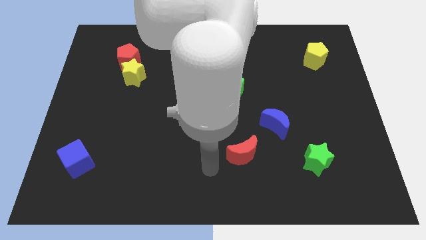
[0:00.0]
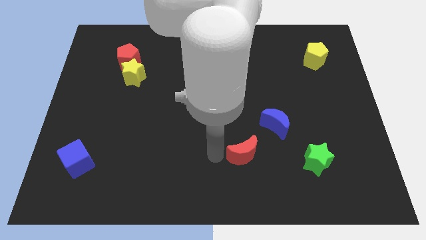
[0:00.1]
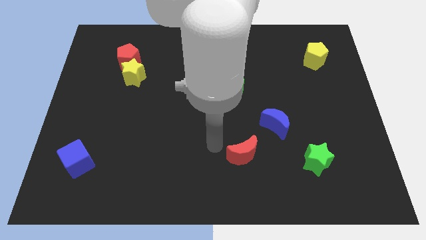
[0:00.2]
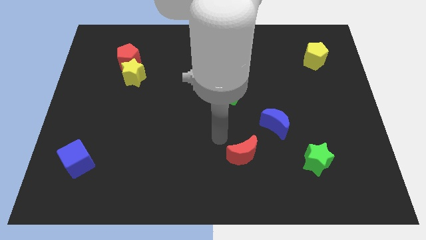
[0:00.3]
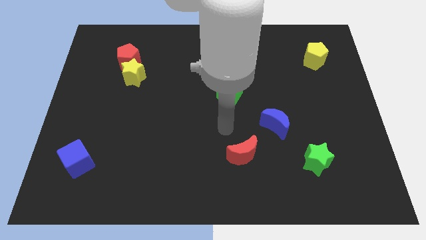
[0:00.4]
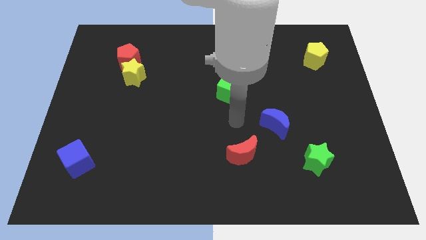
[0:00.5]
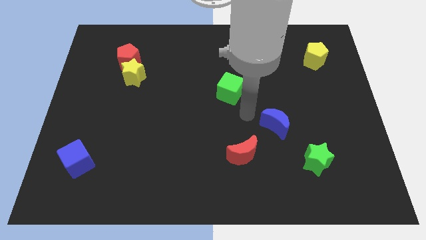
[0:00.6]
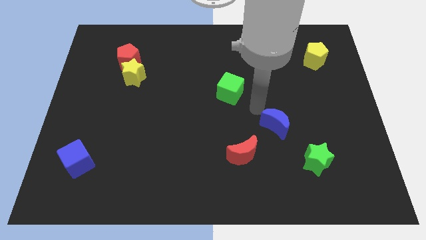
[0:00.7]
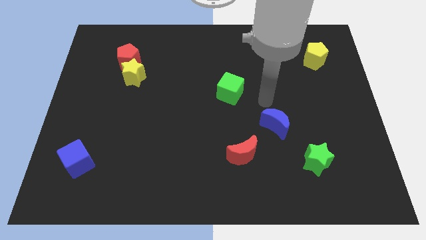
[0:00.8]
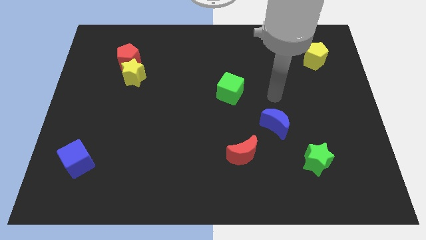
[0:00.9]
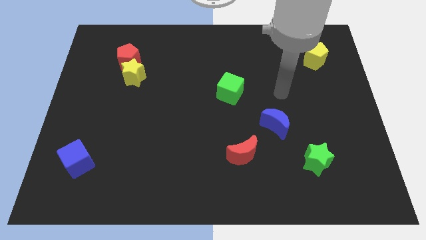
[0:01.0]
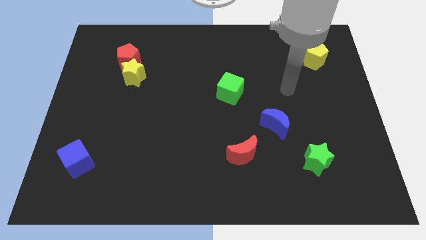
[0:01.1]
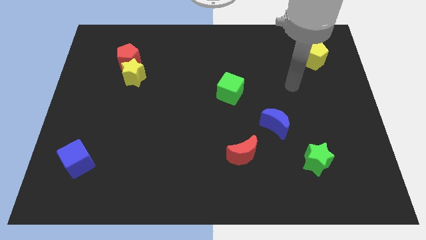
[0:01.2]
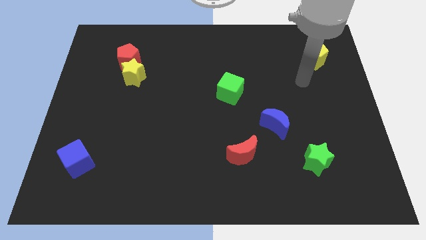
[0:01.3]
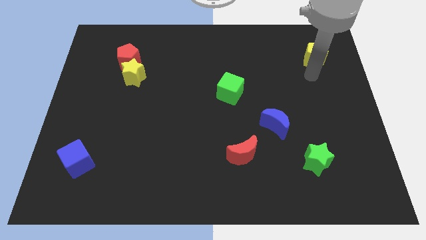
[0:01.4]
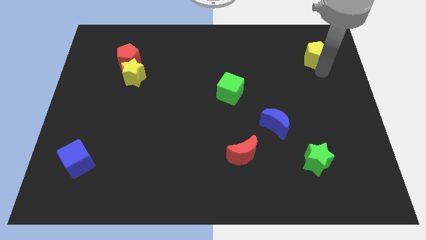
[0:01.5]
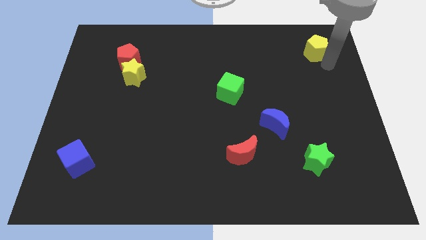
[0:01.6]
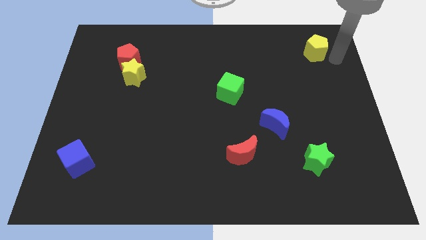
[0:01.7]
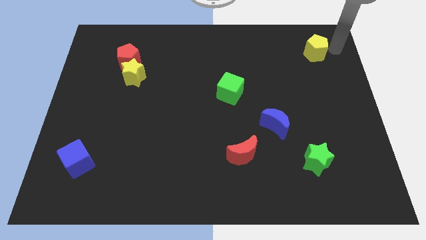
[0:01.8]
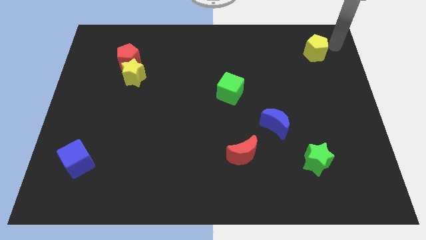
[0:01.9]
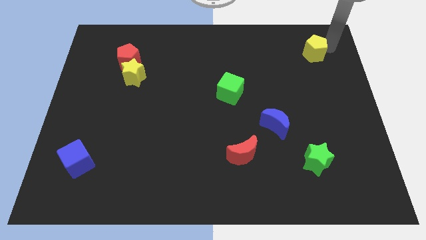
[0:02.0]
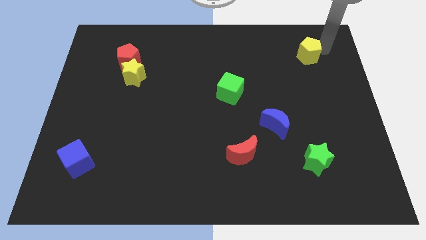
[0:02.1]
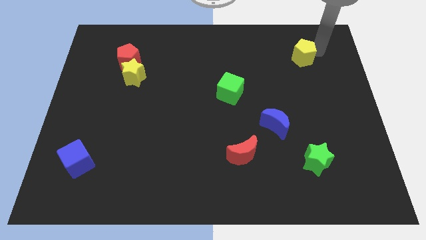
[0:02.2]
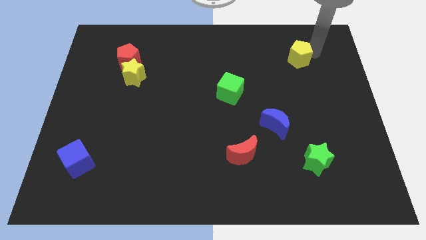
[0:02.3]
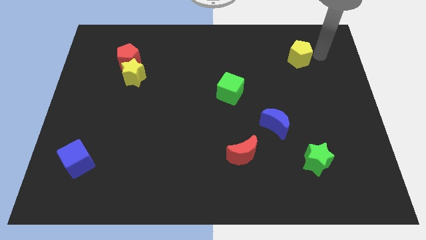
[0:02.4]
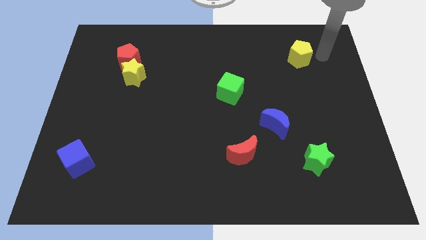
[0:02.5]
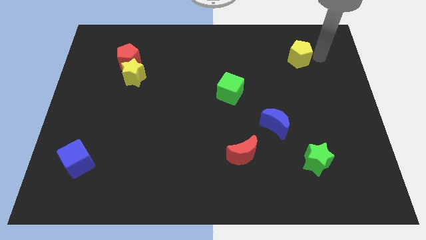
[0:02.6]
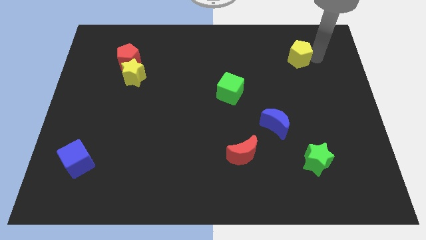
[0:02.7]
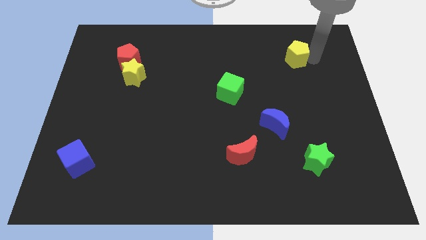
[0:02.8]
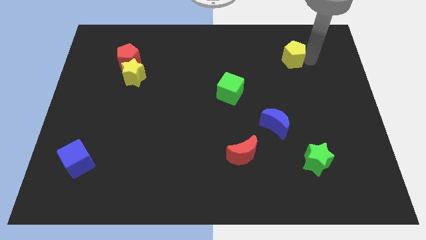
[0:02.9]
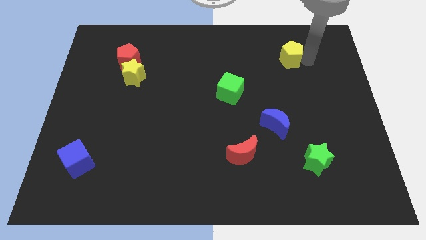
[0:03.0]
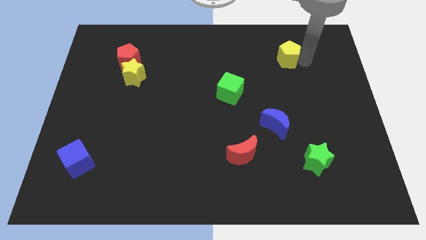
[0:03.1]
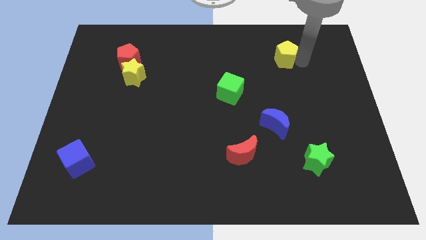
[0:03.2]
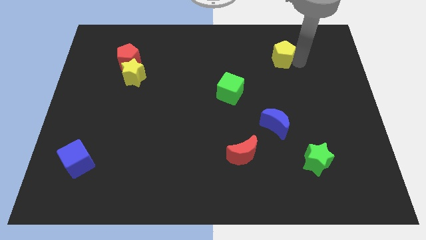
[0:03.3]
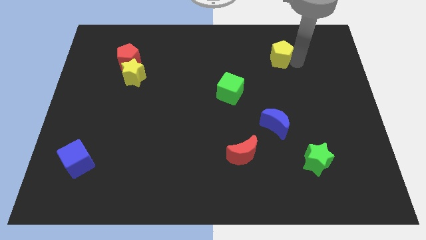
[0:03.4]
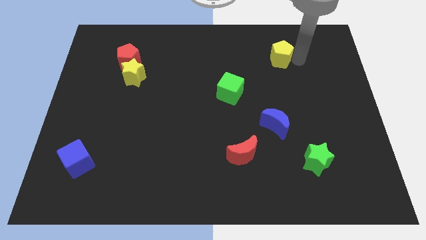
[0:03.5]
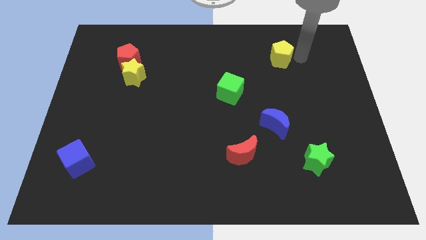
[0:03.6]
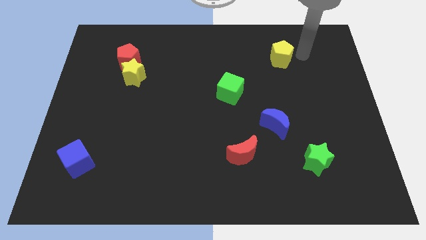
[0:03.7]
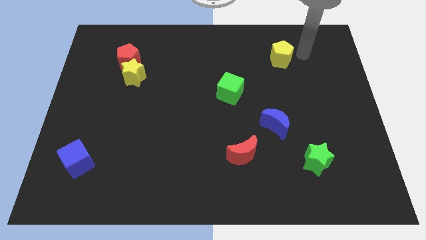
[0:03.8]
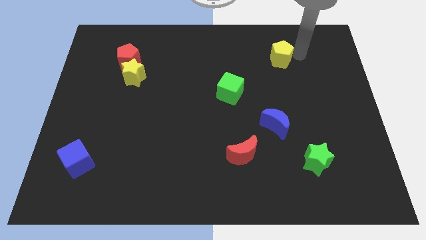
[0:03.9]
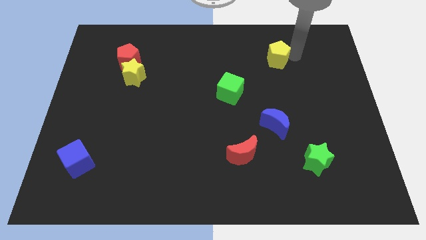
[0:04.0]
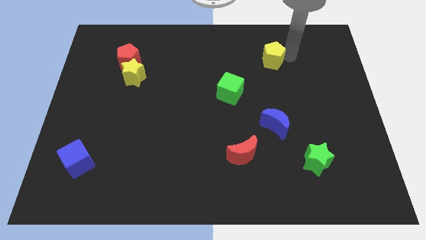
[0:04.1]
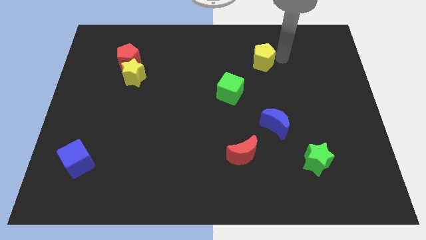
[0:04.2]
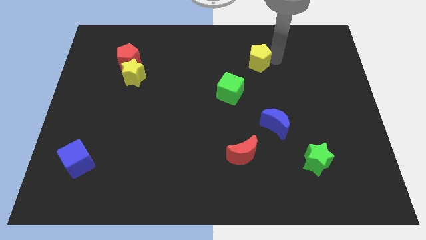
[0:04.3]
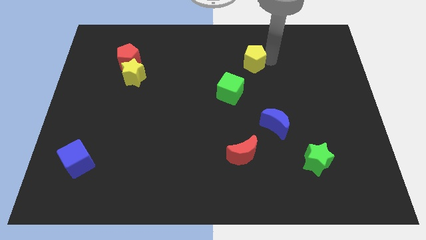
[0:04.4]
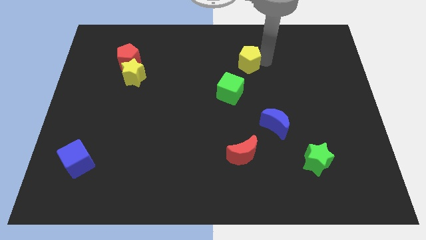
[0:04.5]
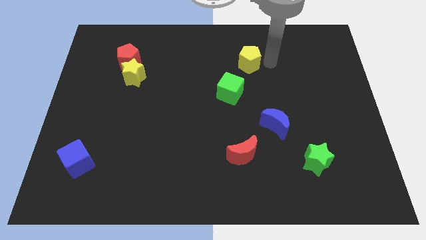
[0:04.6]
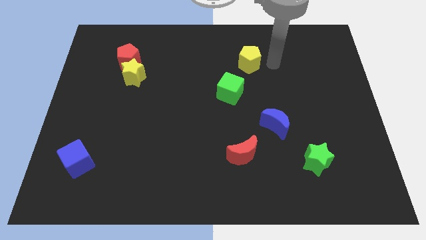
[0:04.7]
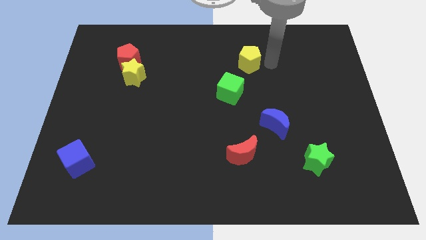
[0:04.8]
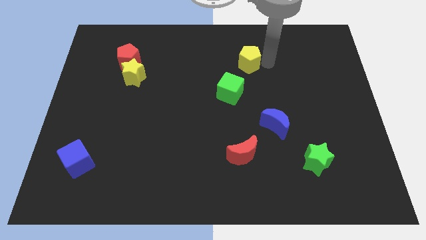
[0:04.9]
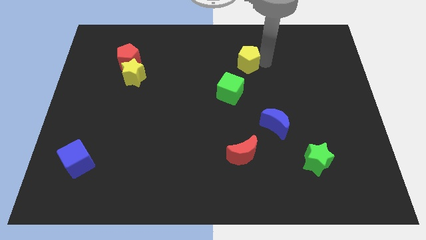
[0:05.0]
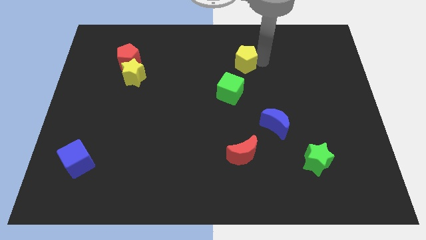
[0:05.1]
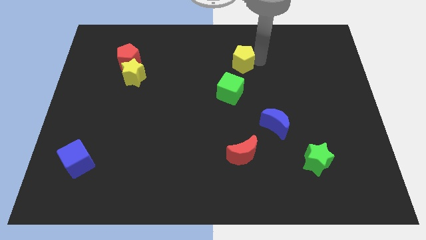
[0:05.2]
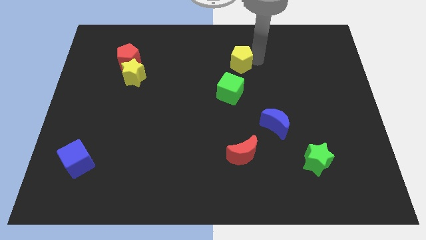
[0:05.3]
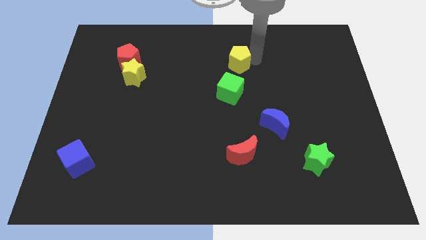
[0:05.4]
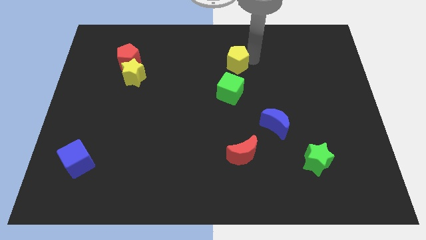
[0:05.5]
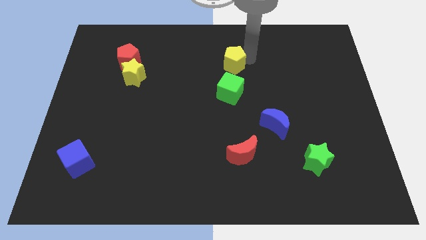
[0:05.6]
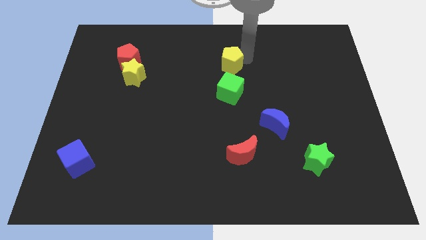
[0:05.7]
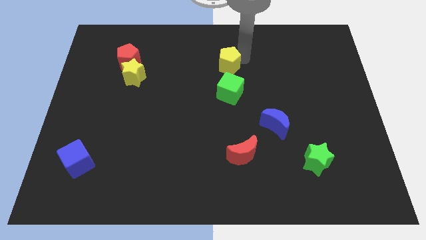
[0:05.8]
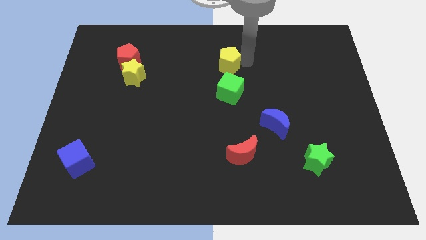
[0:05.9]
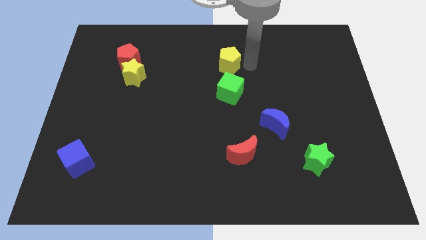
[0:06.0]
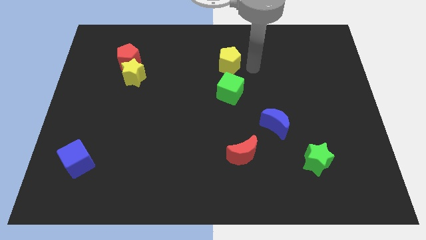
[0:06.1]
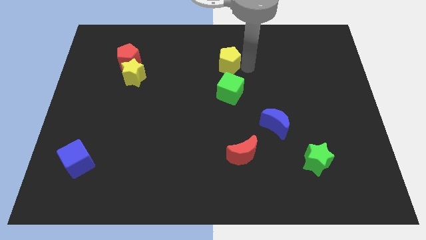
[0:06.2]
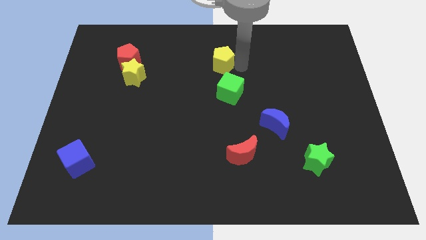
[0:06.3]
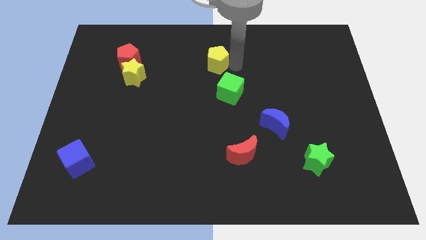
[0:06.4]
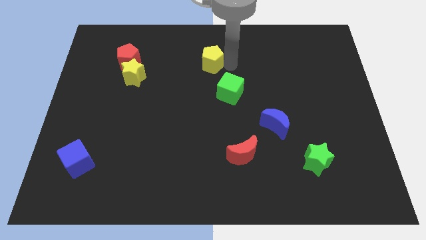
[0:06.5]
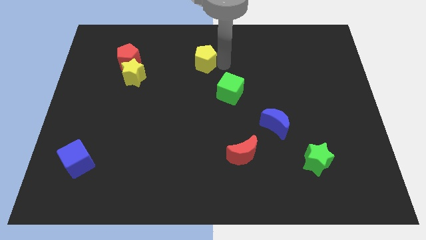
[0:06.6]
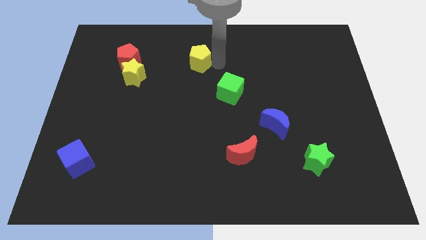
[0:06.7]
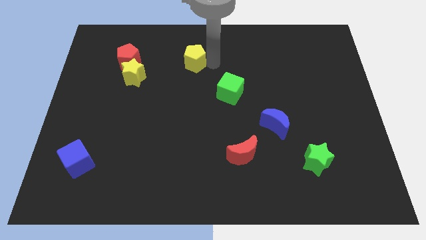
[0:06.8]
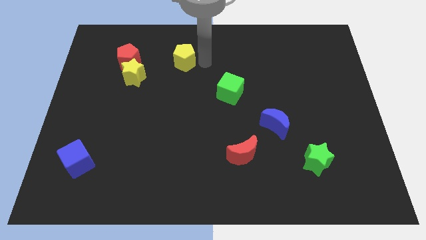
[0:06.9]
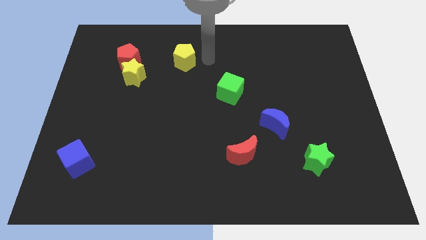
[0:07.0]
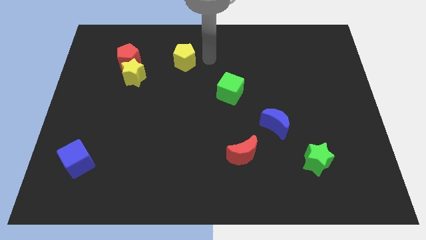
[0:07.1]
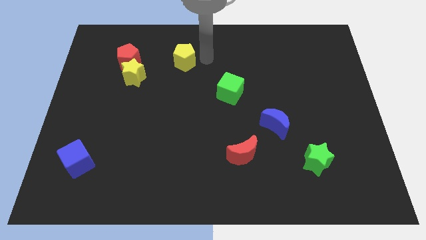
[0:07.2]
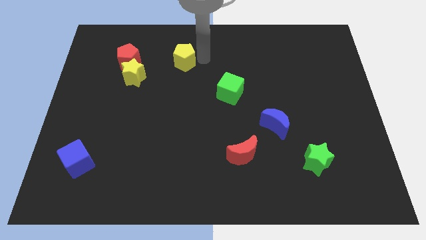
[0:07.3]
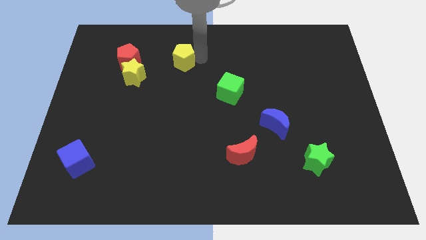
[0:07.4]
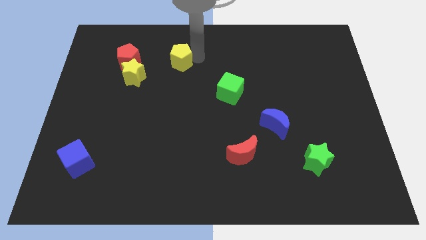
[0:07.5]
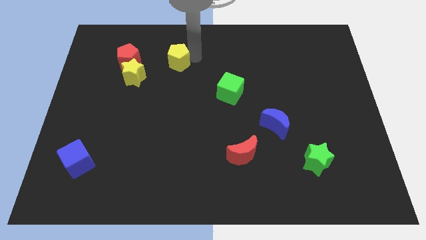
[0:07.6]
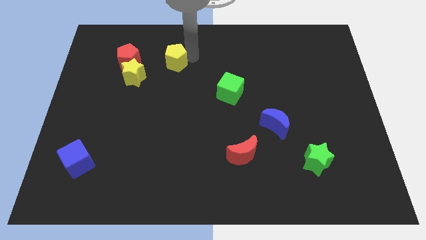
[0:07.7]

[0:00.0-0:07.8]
move the yellow pentagon to the top right side of the yellow star
